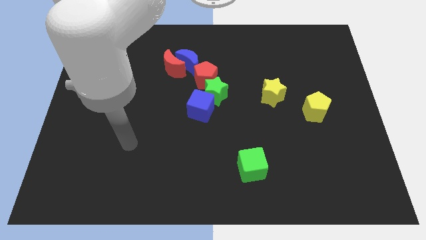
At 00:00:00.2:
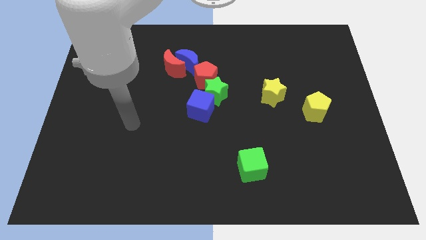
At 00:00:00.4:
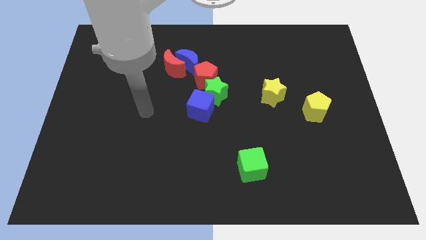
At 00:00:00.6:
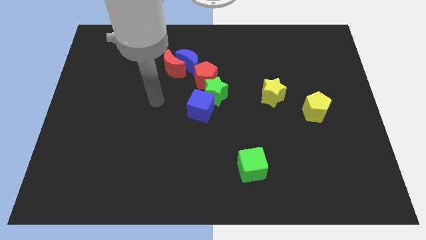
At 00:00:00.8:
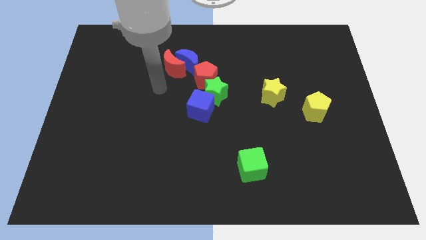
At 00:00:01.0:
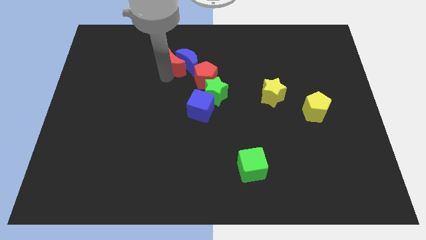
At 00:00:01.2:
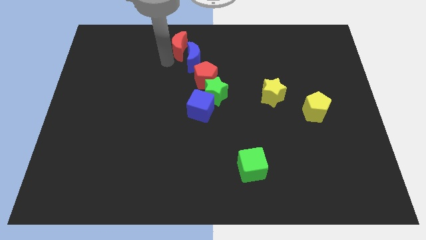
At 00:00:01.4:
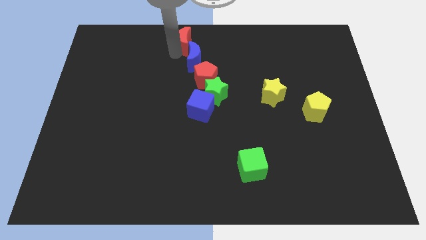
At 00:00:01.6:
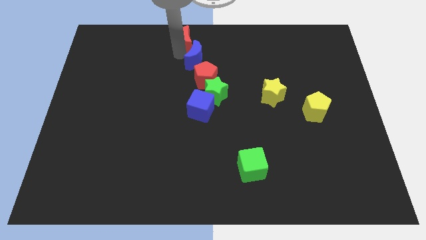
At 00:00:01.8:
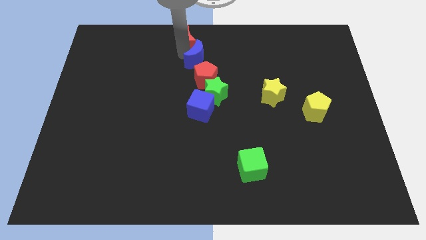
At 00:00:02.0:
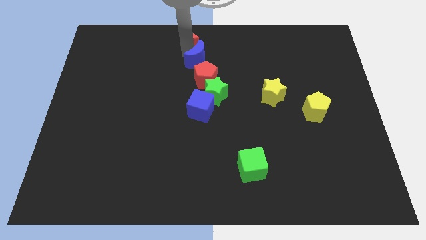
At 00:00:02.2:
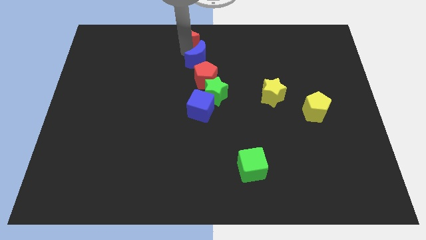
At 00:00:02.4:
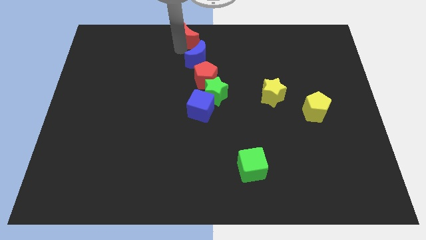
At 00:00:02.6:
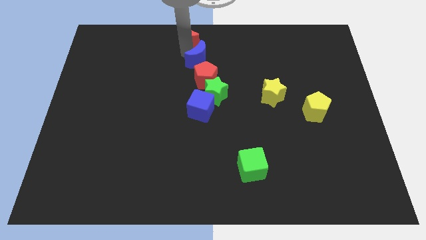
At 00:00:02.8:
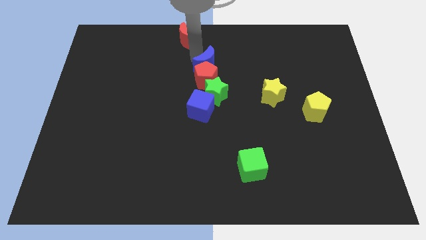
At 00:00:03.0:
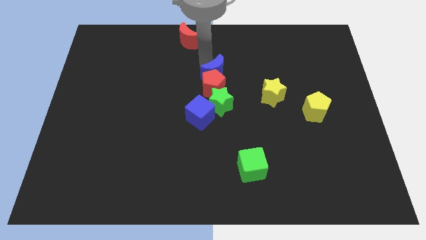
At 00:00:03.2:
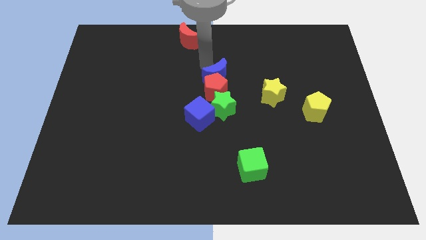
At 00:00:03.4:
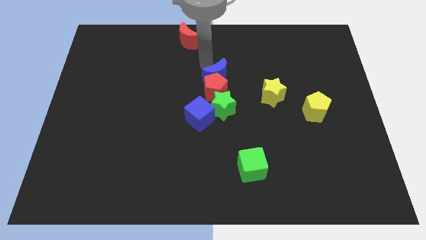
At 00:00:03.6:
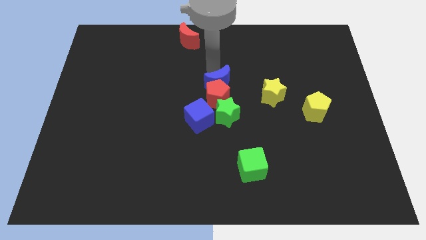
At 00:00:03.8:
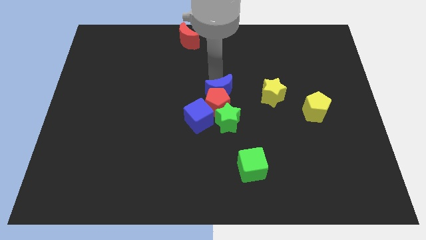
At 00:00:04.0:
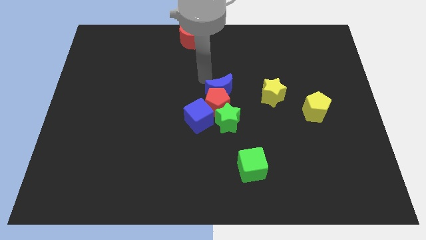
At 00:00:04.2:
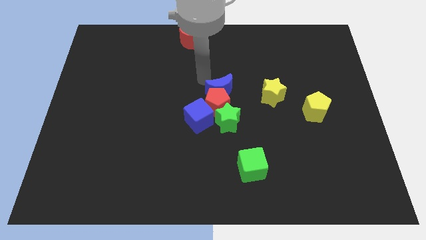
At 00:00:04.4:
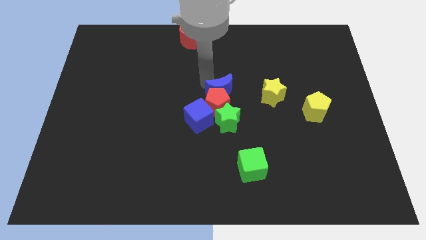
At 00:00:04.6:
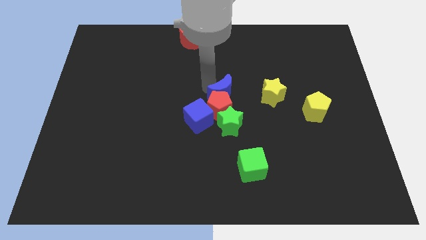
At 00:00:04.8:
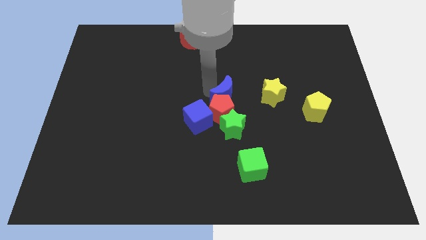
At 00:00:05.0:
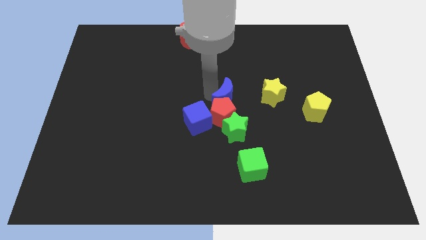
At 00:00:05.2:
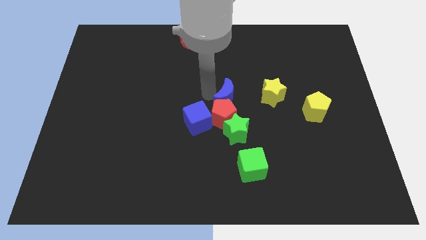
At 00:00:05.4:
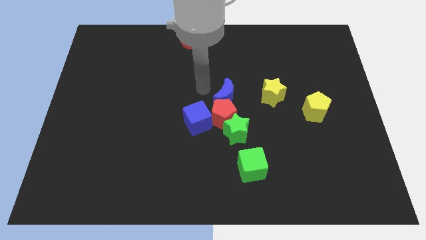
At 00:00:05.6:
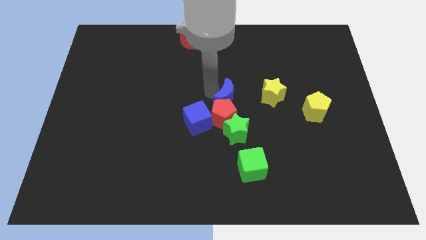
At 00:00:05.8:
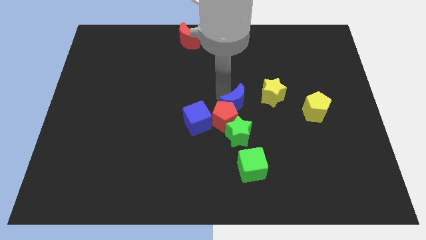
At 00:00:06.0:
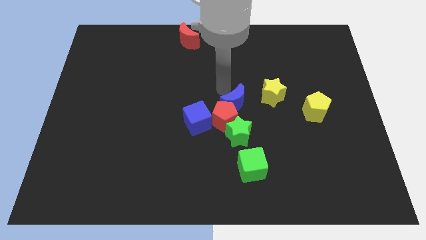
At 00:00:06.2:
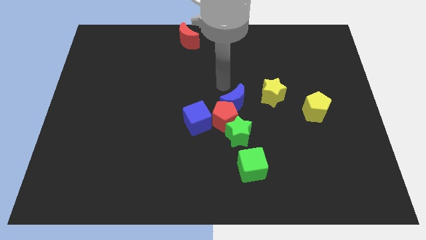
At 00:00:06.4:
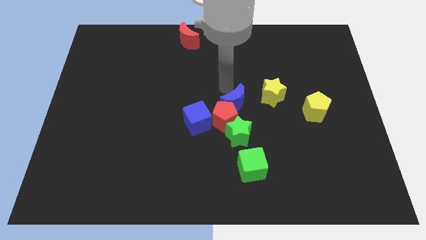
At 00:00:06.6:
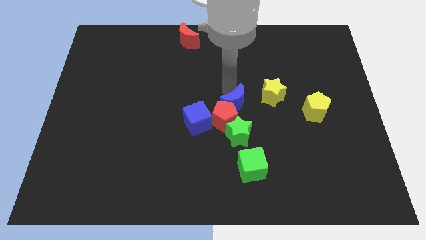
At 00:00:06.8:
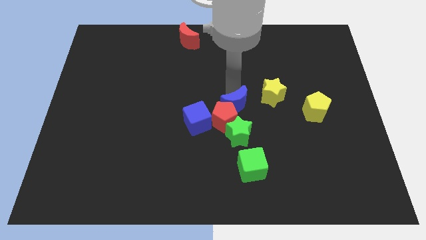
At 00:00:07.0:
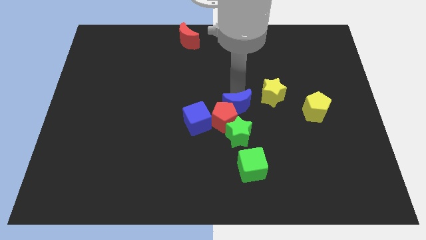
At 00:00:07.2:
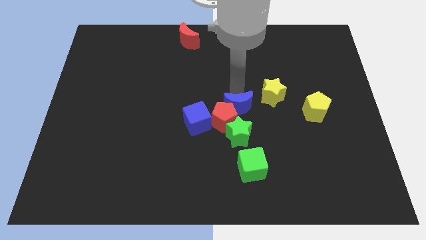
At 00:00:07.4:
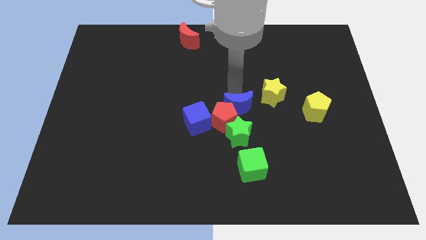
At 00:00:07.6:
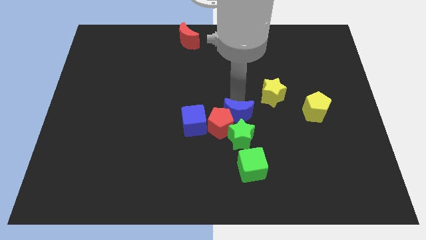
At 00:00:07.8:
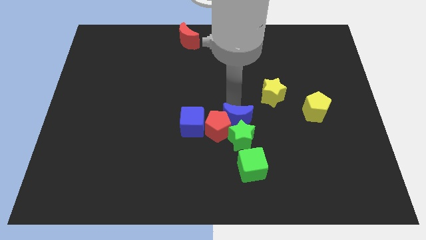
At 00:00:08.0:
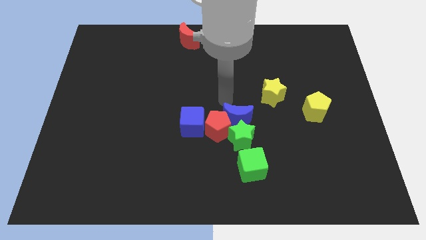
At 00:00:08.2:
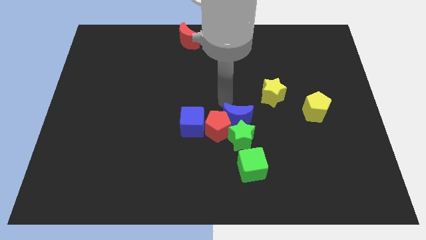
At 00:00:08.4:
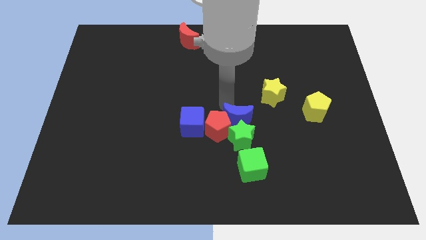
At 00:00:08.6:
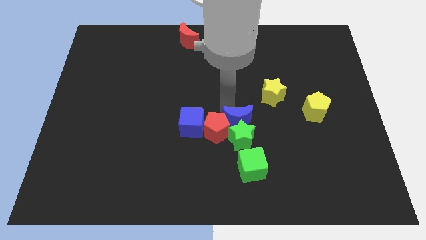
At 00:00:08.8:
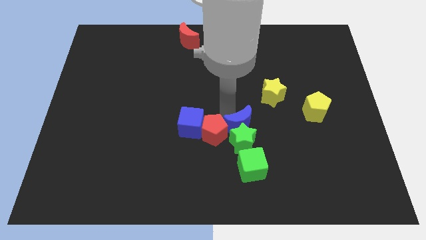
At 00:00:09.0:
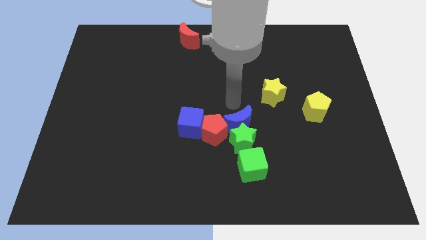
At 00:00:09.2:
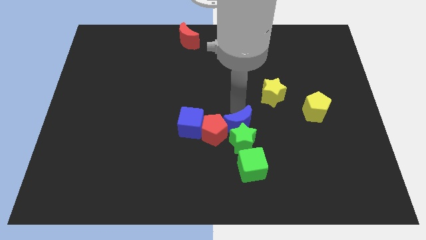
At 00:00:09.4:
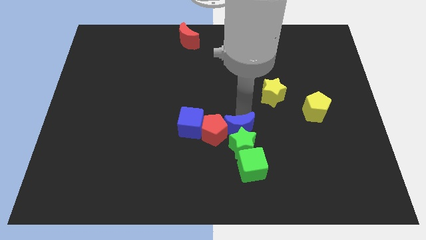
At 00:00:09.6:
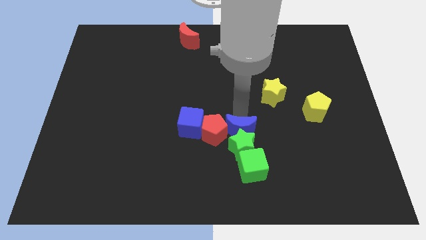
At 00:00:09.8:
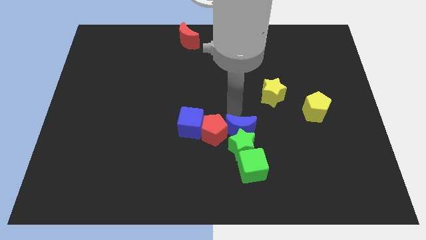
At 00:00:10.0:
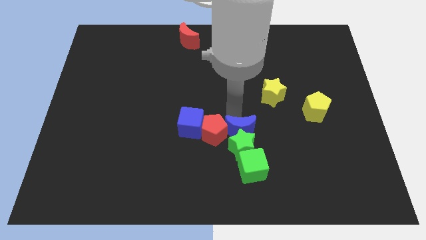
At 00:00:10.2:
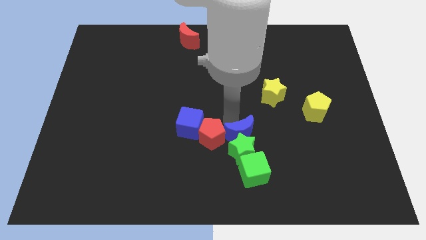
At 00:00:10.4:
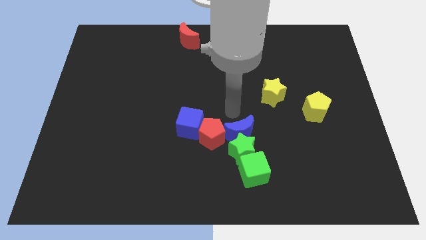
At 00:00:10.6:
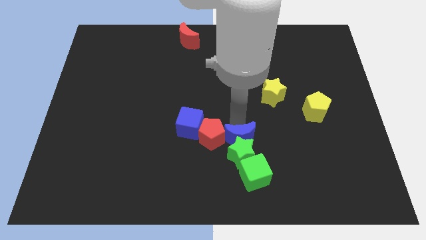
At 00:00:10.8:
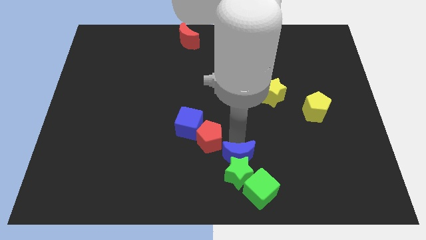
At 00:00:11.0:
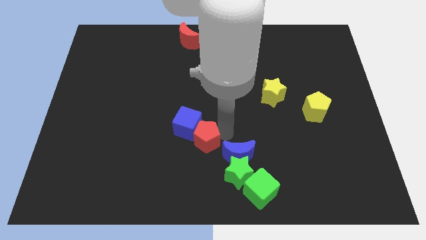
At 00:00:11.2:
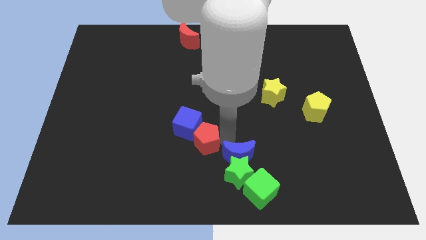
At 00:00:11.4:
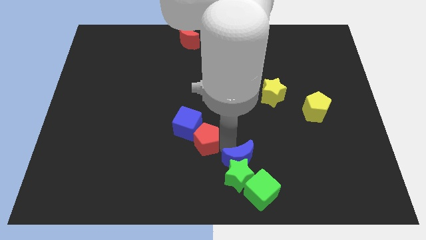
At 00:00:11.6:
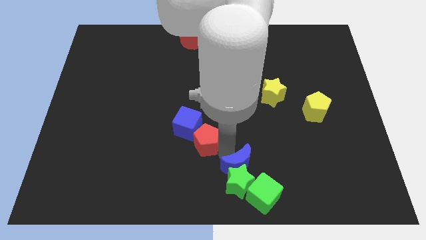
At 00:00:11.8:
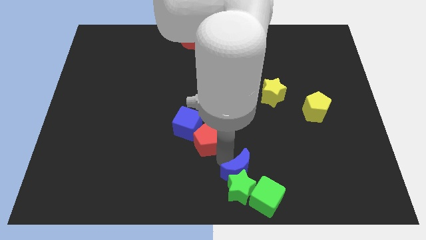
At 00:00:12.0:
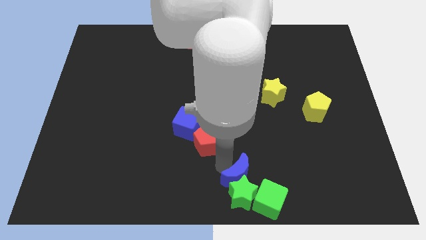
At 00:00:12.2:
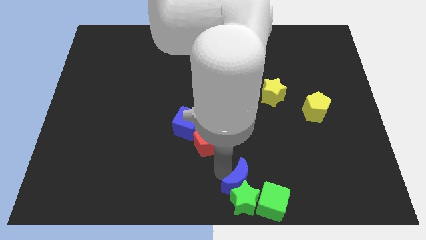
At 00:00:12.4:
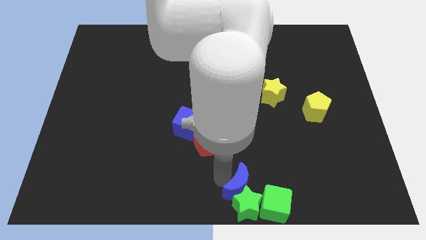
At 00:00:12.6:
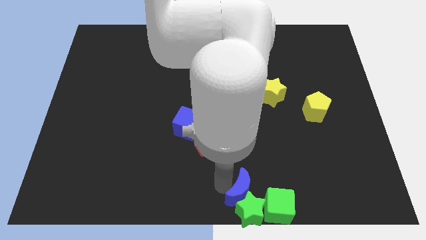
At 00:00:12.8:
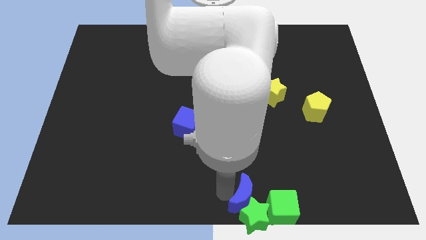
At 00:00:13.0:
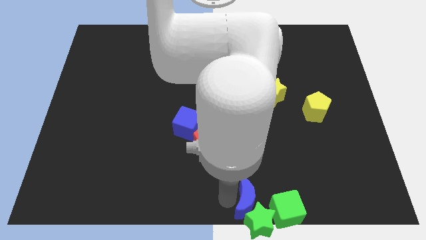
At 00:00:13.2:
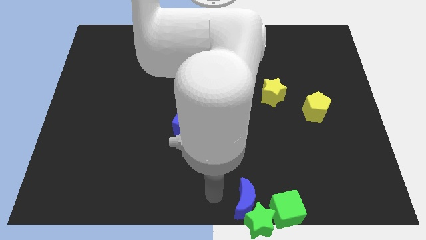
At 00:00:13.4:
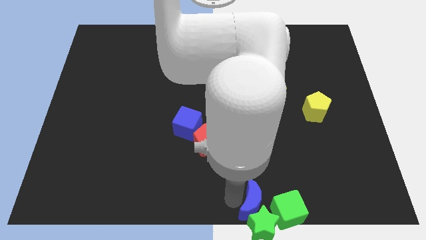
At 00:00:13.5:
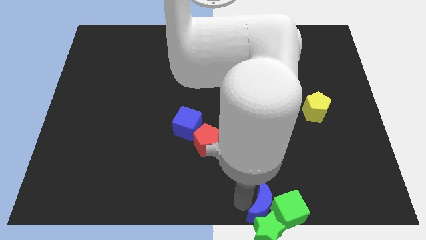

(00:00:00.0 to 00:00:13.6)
move the blue moon towards the green cube
